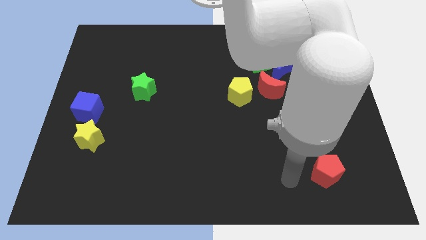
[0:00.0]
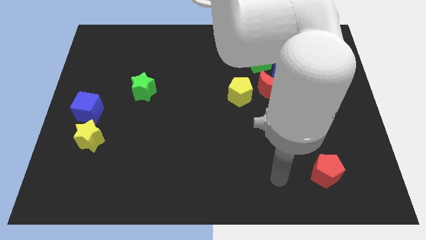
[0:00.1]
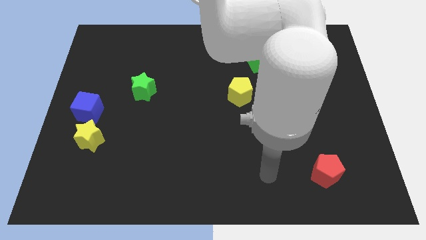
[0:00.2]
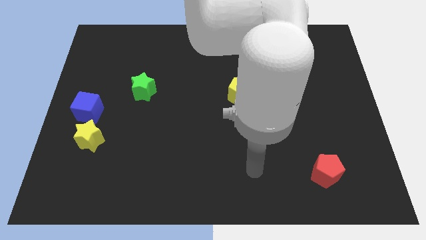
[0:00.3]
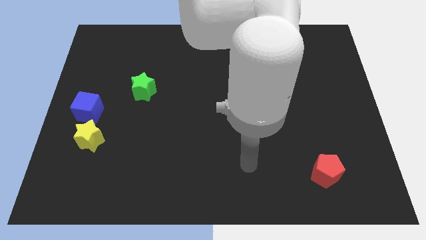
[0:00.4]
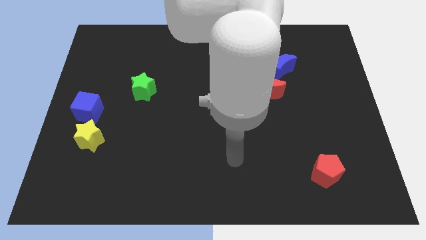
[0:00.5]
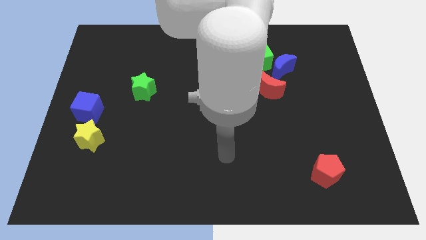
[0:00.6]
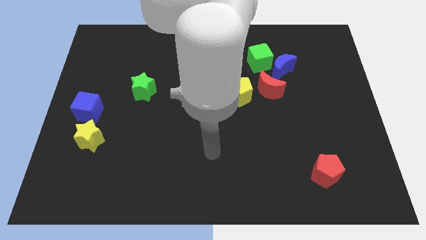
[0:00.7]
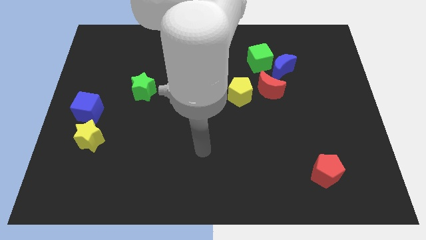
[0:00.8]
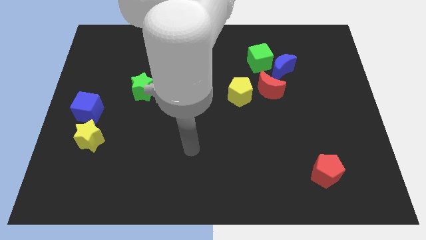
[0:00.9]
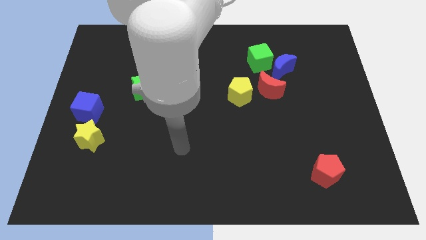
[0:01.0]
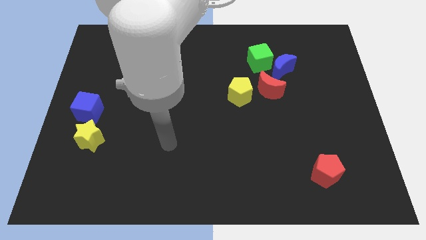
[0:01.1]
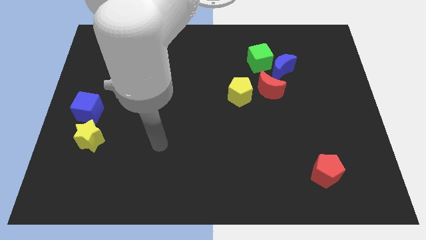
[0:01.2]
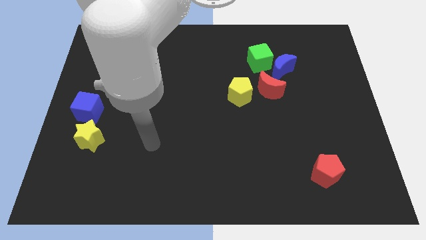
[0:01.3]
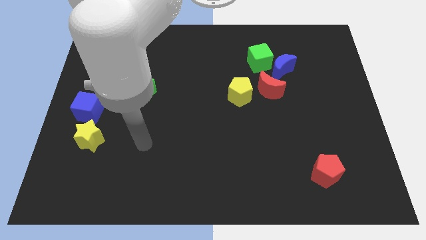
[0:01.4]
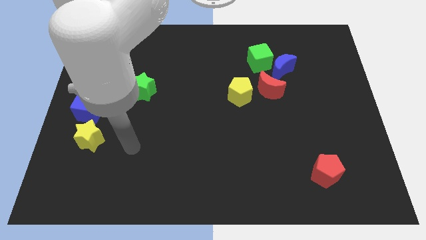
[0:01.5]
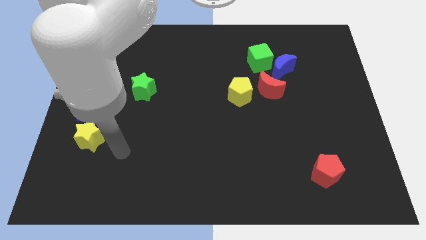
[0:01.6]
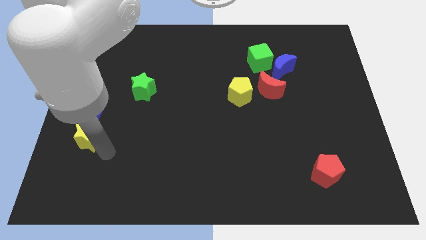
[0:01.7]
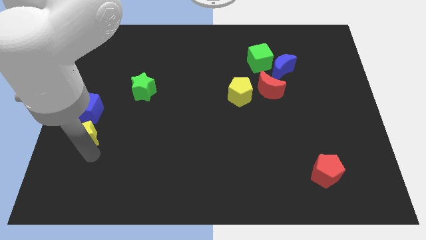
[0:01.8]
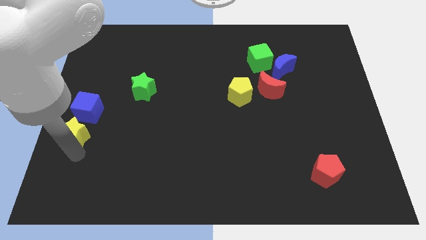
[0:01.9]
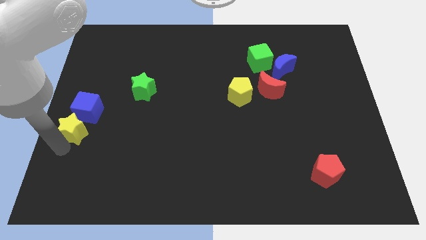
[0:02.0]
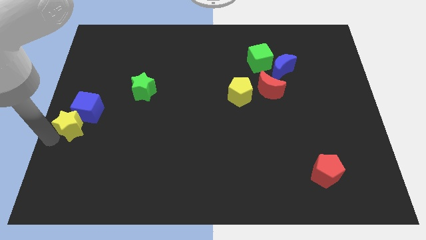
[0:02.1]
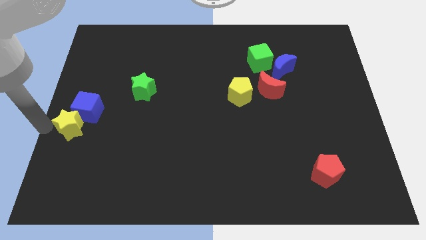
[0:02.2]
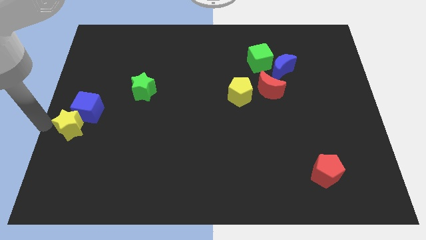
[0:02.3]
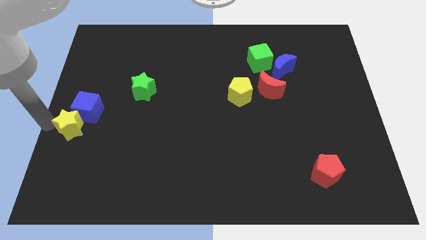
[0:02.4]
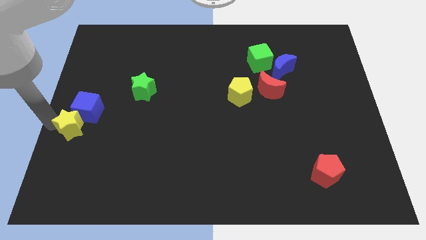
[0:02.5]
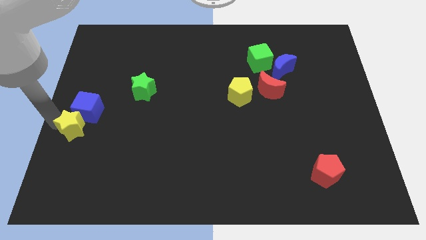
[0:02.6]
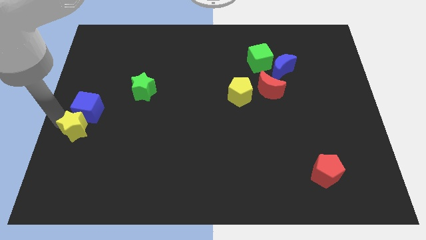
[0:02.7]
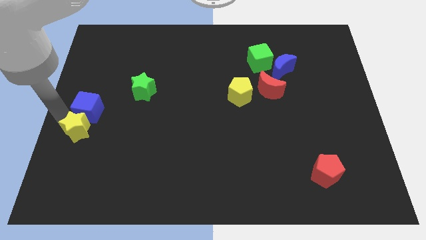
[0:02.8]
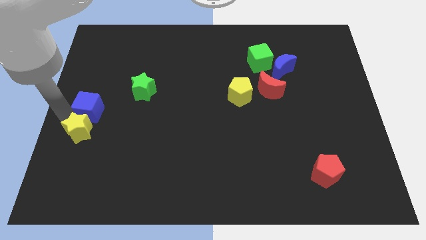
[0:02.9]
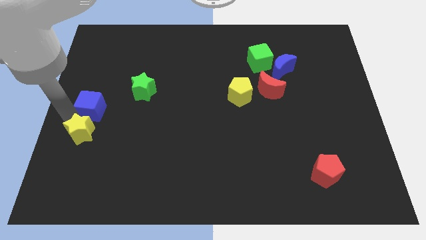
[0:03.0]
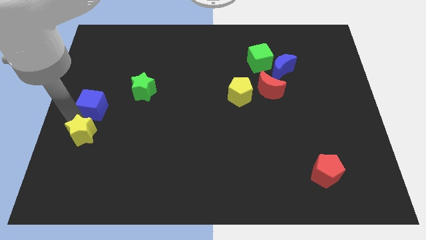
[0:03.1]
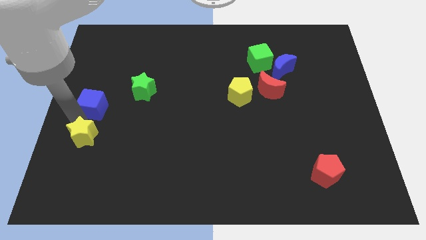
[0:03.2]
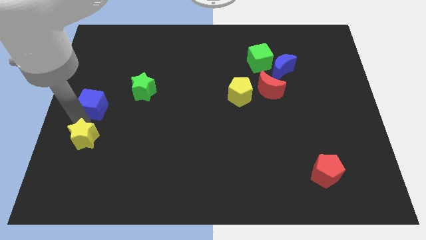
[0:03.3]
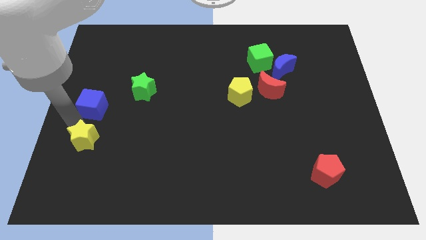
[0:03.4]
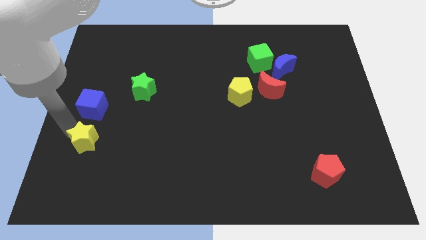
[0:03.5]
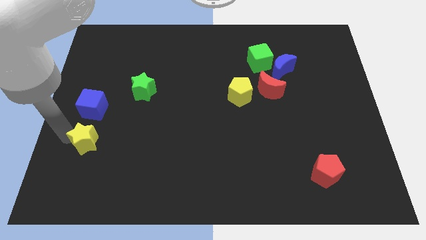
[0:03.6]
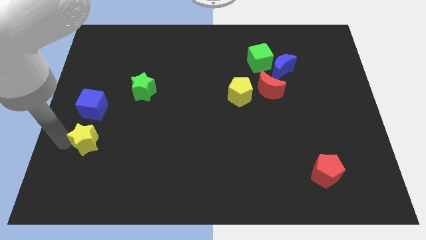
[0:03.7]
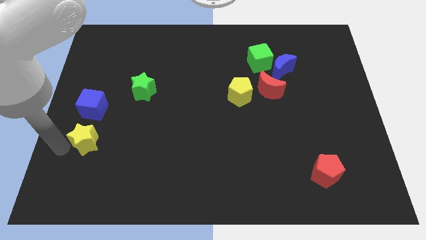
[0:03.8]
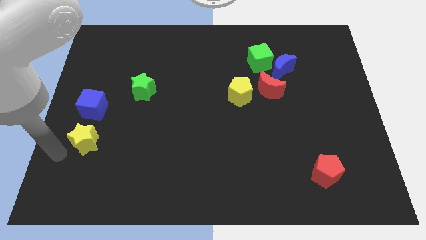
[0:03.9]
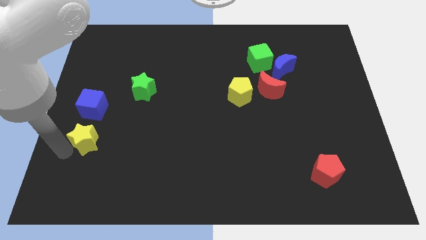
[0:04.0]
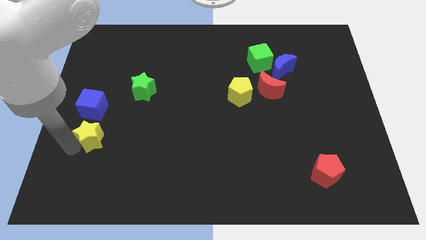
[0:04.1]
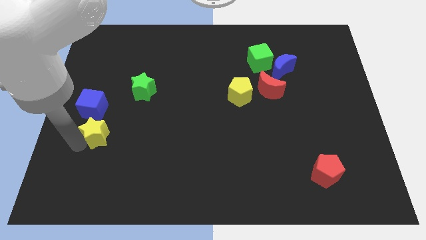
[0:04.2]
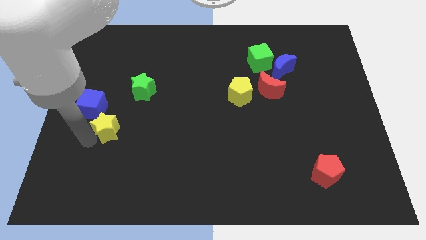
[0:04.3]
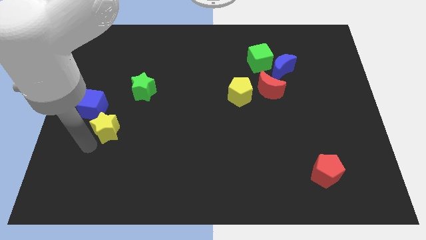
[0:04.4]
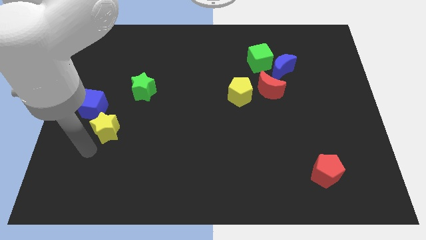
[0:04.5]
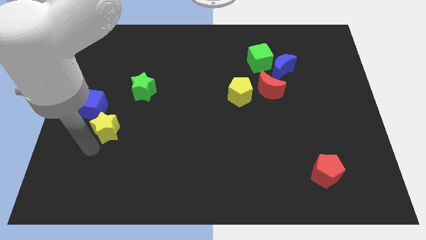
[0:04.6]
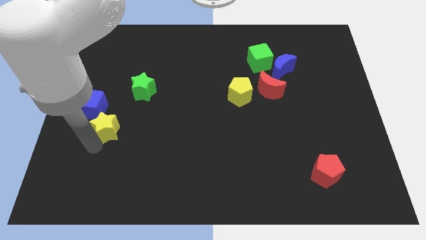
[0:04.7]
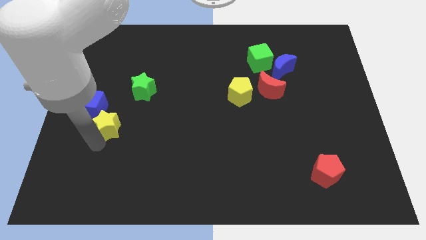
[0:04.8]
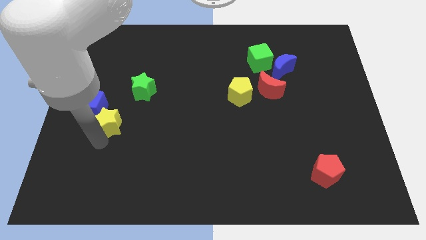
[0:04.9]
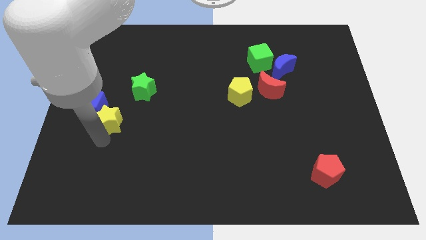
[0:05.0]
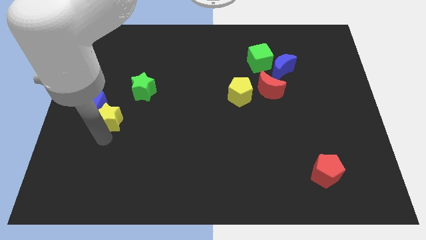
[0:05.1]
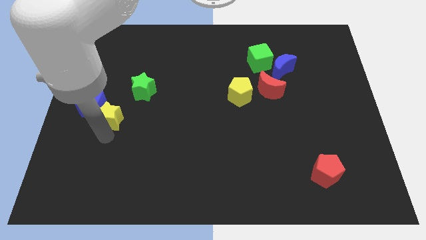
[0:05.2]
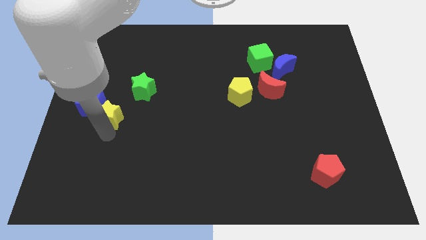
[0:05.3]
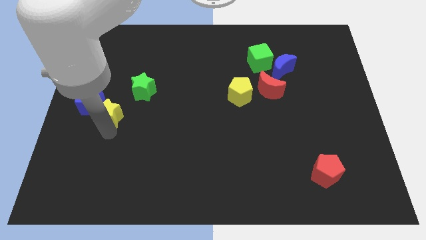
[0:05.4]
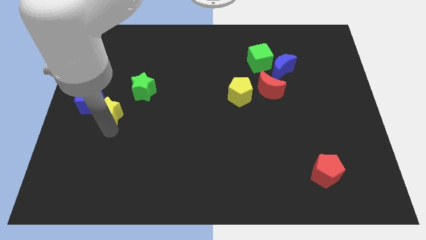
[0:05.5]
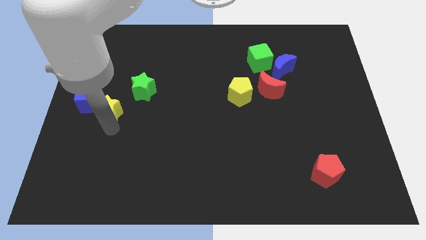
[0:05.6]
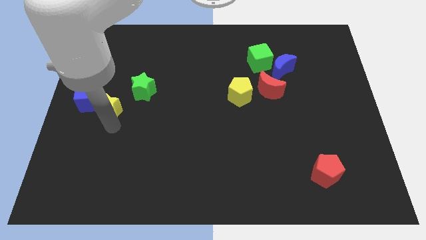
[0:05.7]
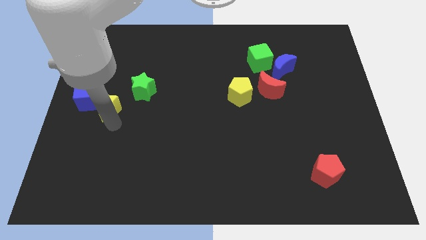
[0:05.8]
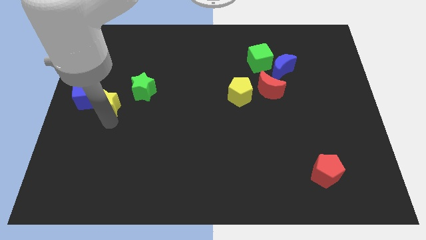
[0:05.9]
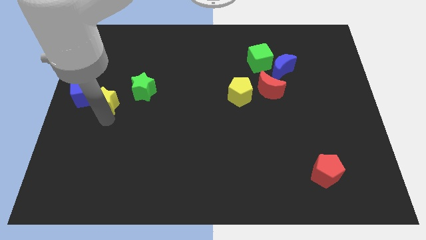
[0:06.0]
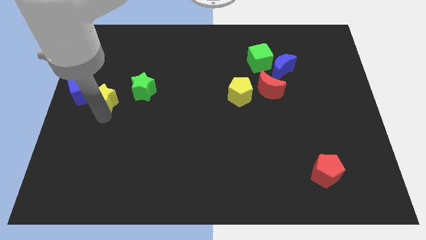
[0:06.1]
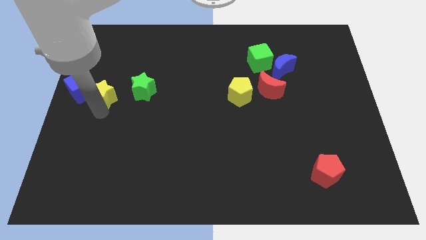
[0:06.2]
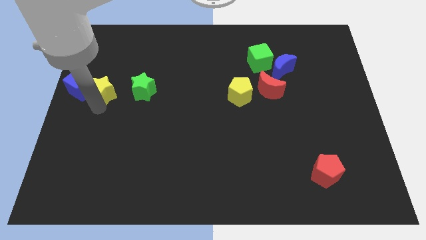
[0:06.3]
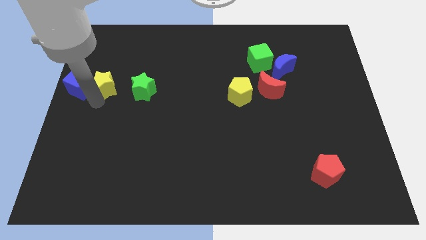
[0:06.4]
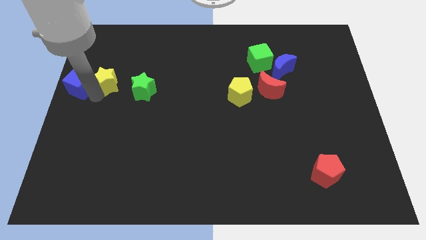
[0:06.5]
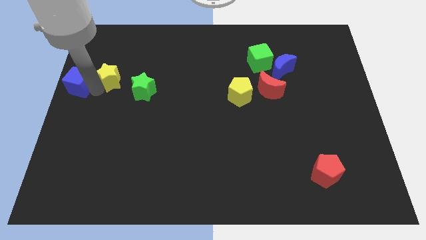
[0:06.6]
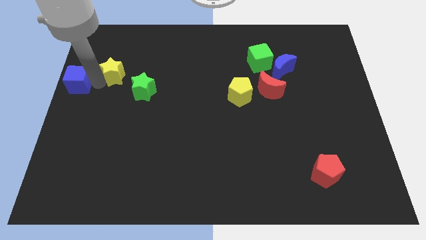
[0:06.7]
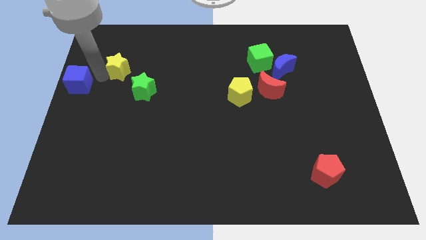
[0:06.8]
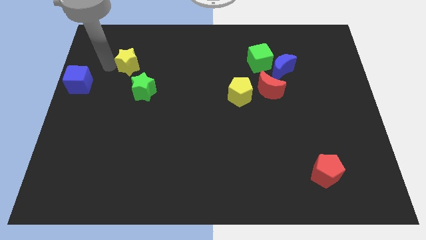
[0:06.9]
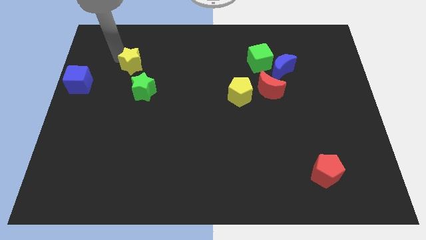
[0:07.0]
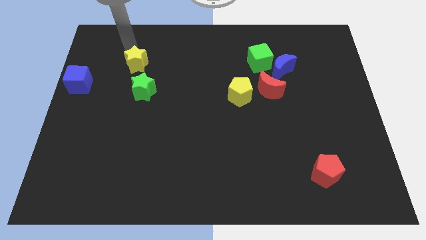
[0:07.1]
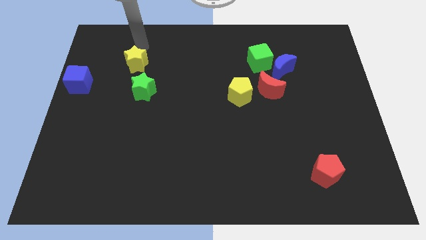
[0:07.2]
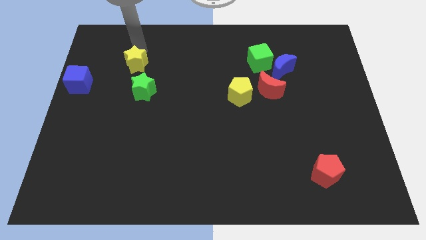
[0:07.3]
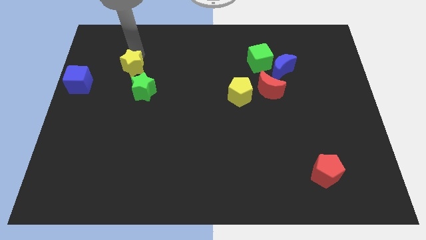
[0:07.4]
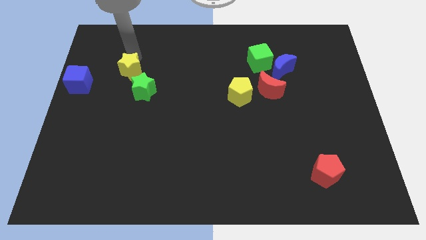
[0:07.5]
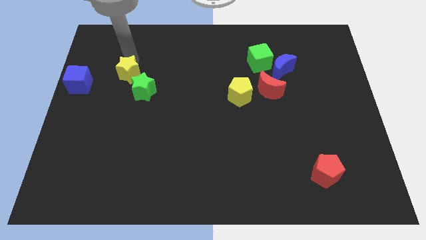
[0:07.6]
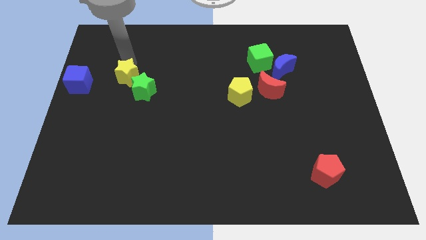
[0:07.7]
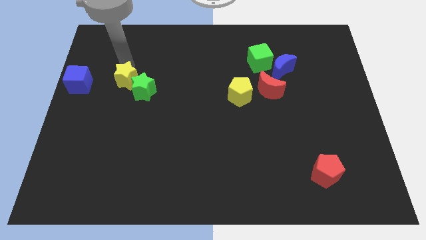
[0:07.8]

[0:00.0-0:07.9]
push the yellow star towards the green star
